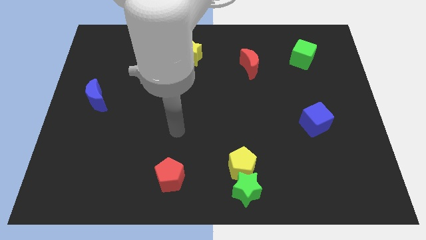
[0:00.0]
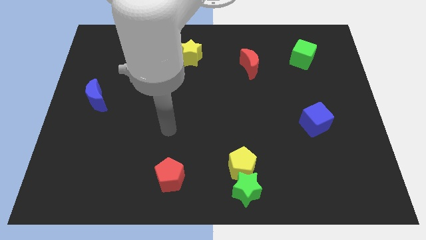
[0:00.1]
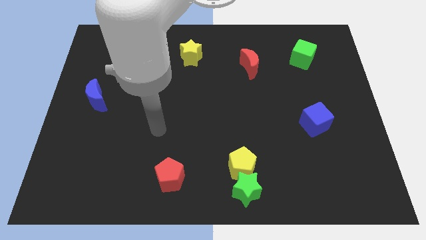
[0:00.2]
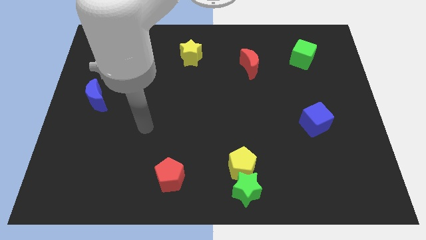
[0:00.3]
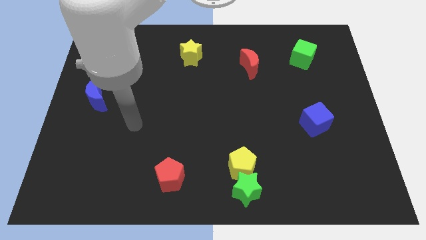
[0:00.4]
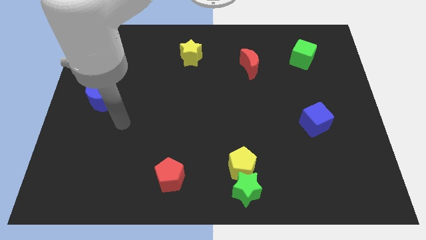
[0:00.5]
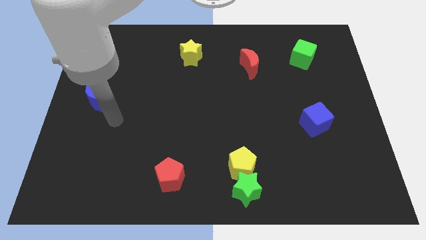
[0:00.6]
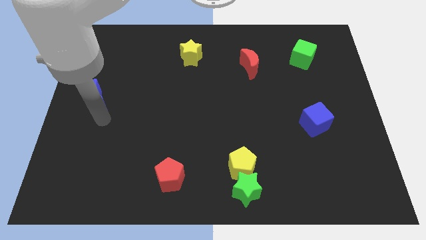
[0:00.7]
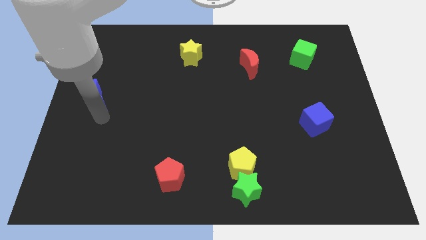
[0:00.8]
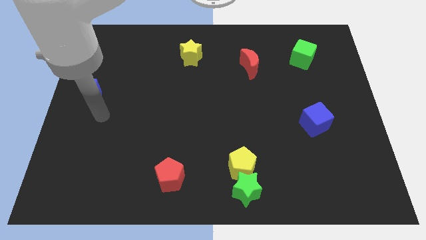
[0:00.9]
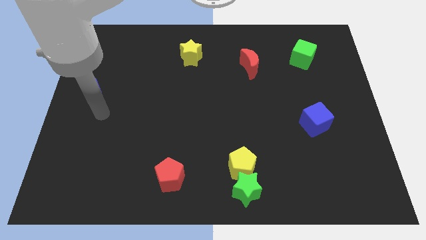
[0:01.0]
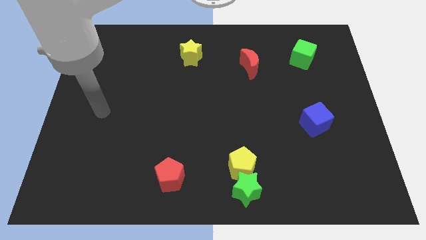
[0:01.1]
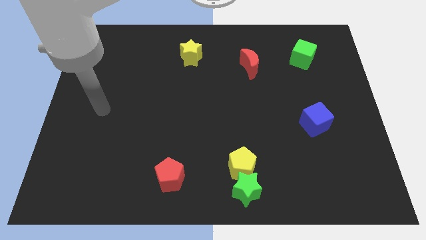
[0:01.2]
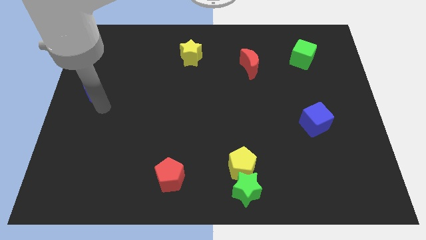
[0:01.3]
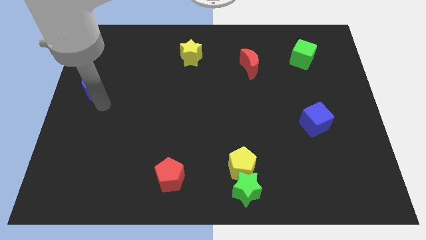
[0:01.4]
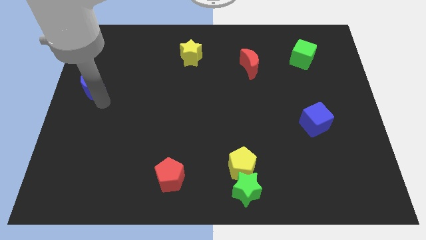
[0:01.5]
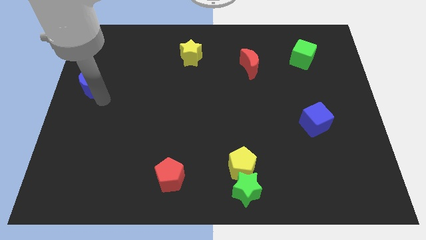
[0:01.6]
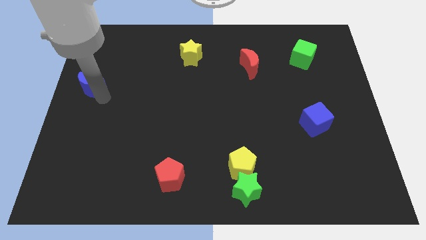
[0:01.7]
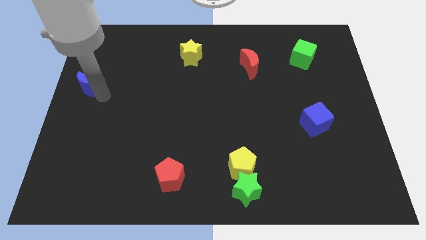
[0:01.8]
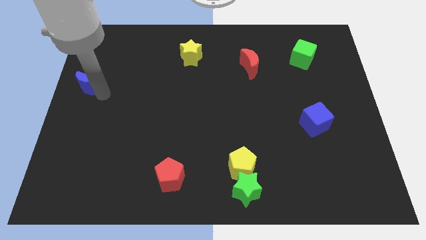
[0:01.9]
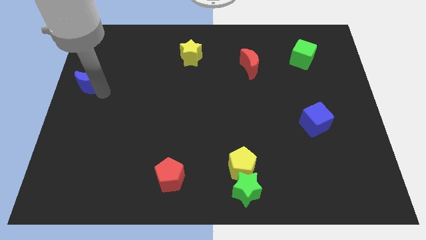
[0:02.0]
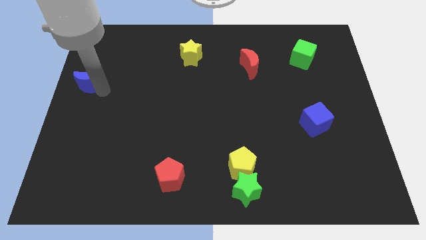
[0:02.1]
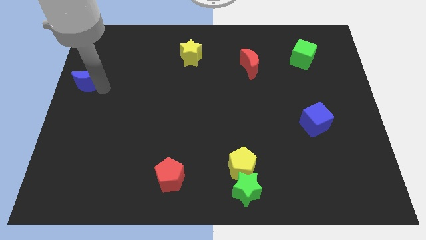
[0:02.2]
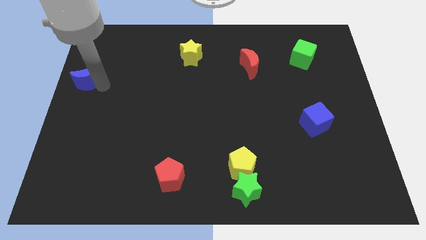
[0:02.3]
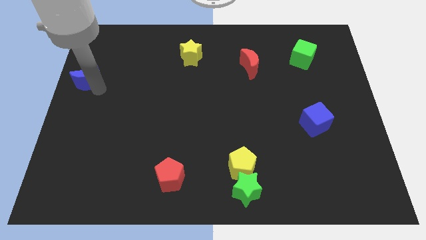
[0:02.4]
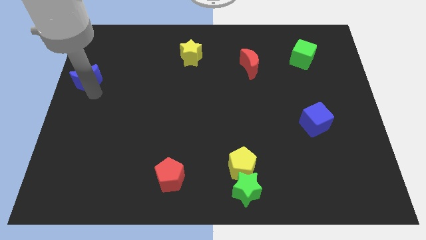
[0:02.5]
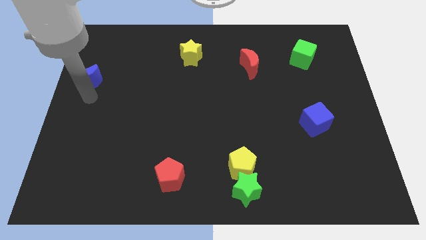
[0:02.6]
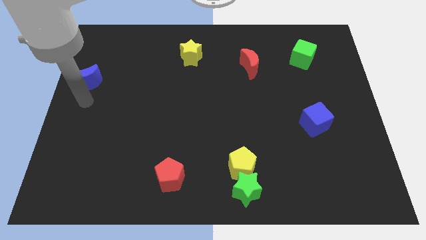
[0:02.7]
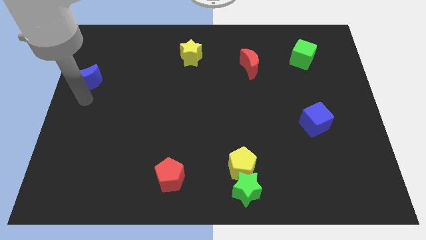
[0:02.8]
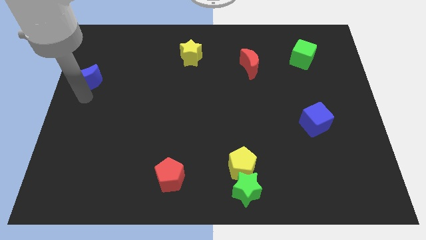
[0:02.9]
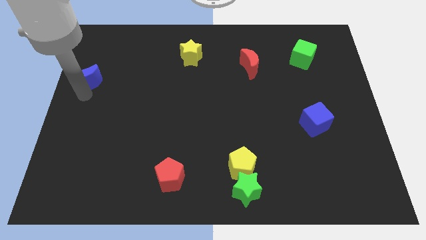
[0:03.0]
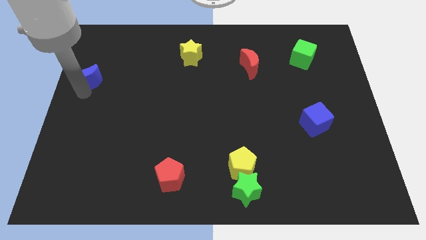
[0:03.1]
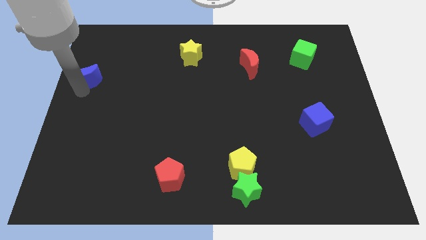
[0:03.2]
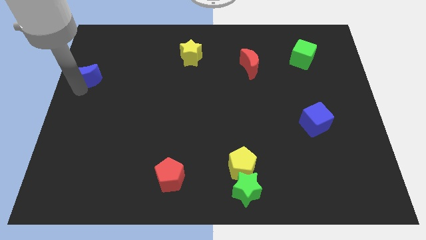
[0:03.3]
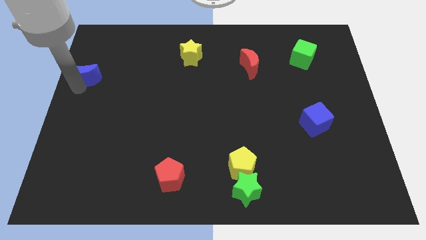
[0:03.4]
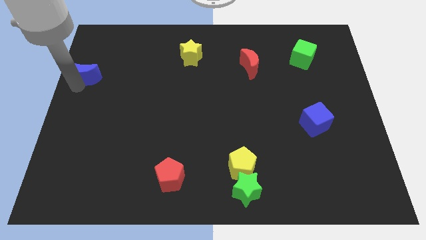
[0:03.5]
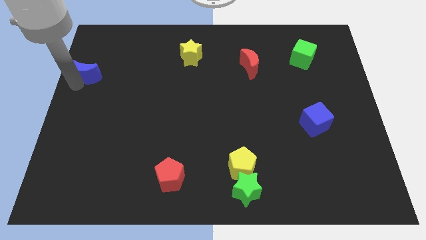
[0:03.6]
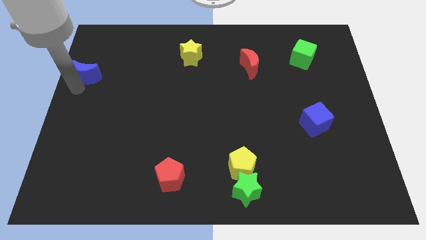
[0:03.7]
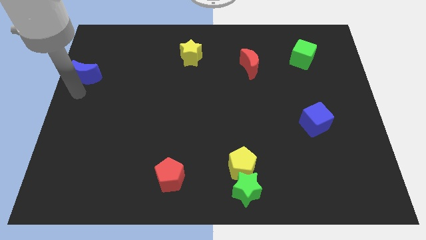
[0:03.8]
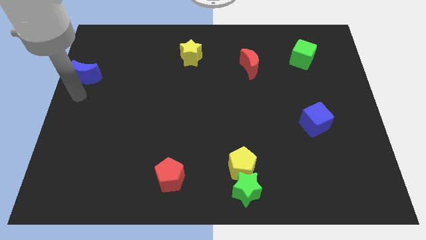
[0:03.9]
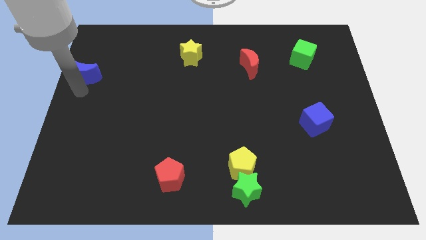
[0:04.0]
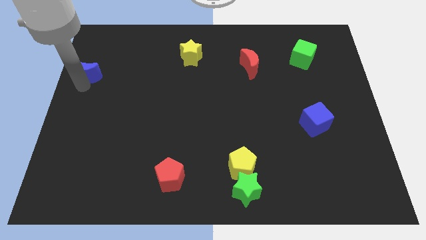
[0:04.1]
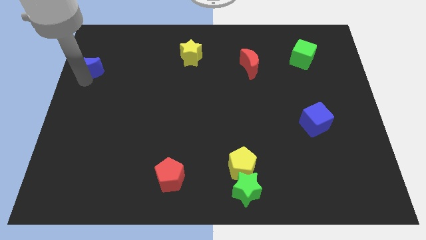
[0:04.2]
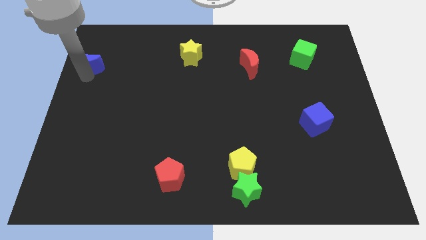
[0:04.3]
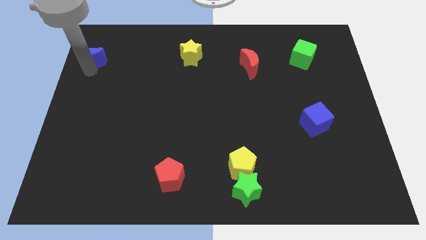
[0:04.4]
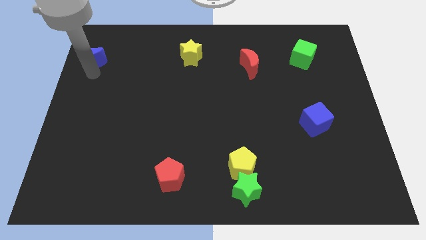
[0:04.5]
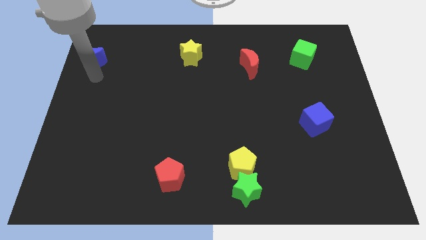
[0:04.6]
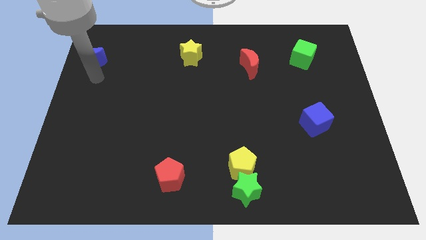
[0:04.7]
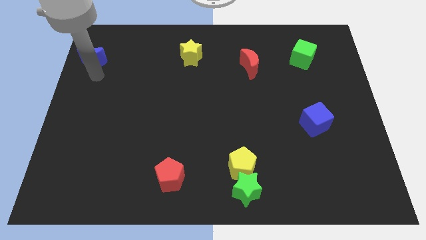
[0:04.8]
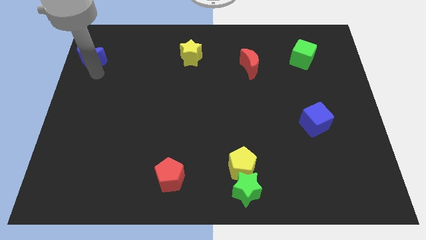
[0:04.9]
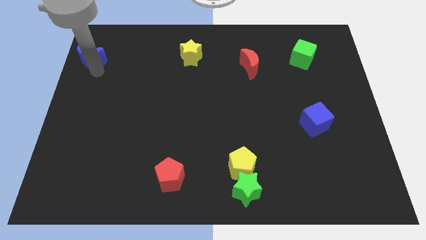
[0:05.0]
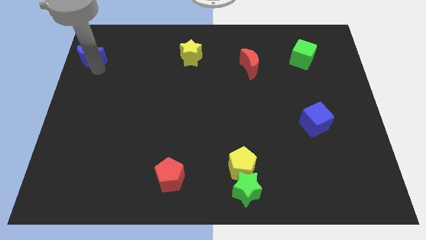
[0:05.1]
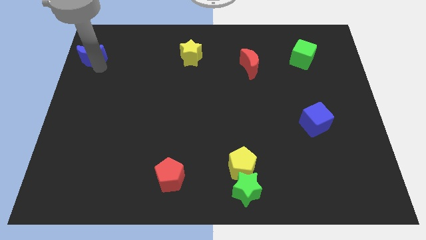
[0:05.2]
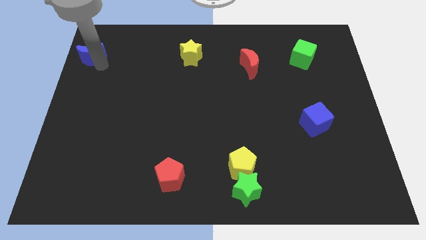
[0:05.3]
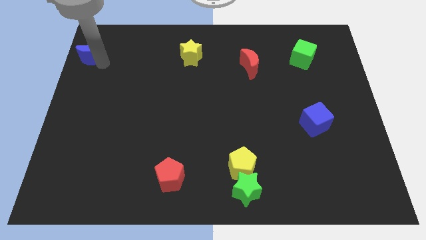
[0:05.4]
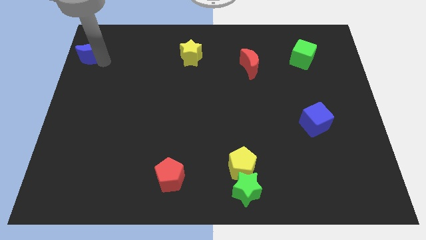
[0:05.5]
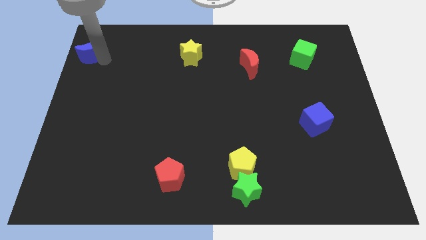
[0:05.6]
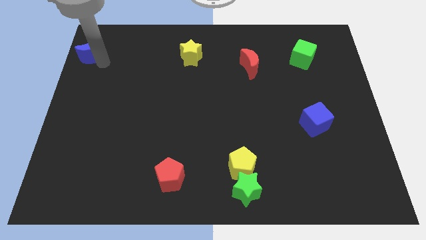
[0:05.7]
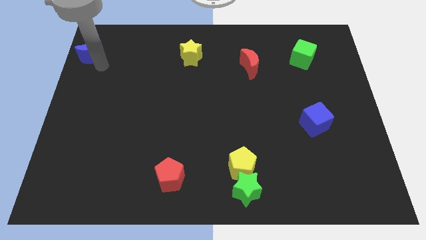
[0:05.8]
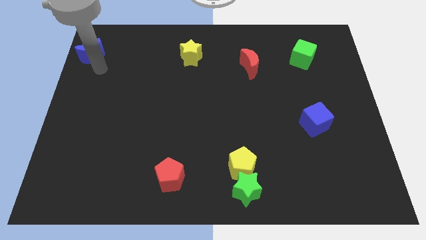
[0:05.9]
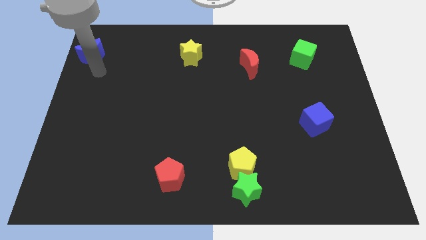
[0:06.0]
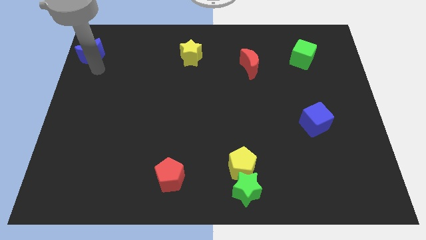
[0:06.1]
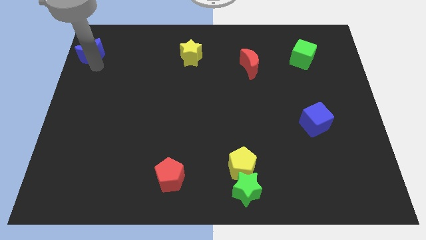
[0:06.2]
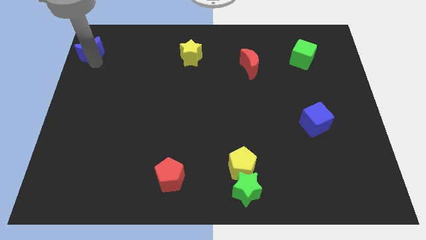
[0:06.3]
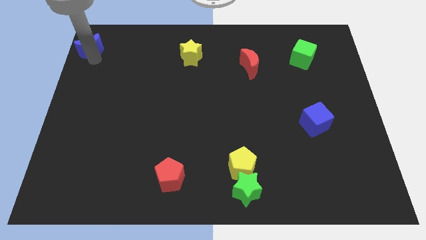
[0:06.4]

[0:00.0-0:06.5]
slide the blue moon to the upper left corner
